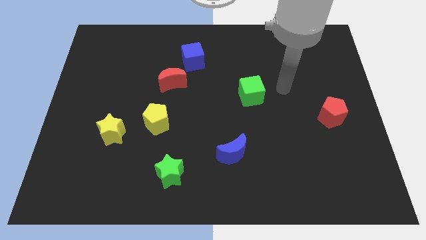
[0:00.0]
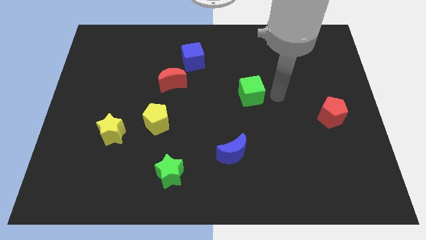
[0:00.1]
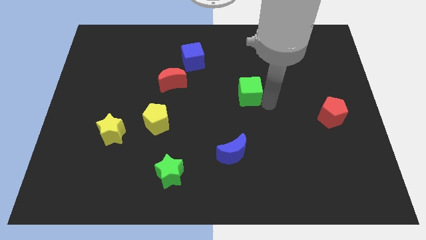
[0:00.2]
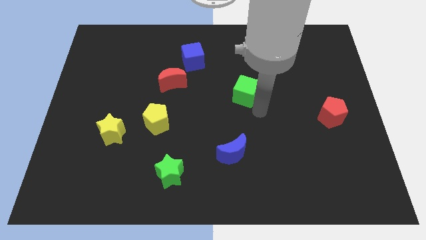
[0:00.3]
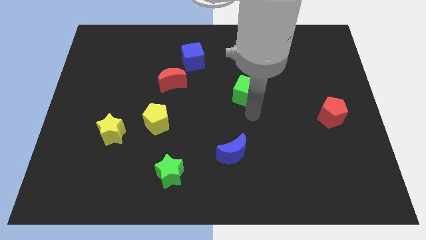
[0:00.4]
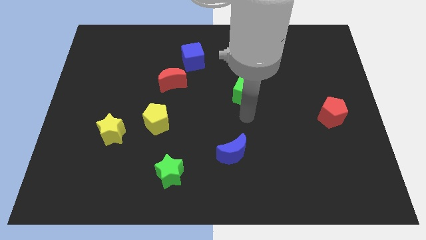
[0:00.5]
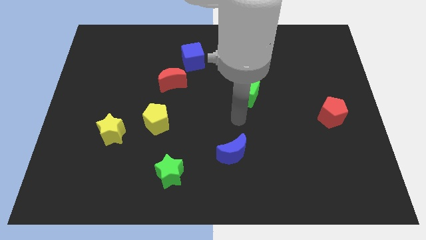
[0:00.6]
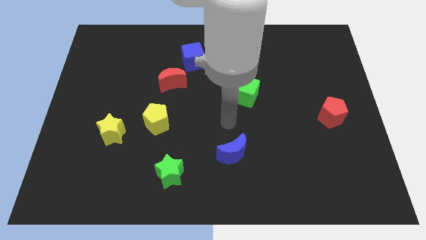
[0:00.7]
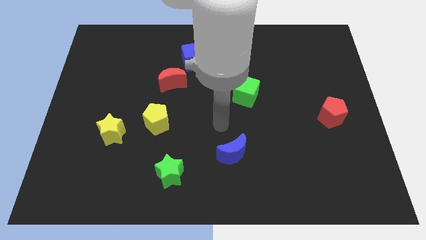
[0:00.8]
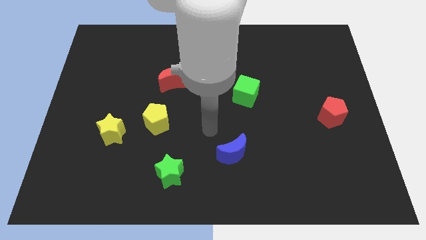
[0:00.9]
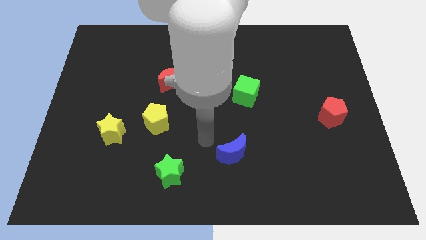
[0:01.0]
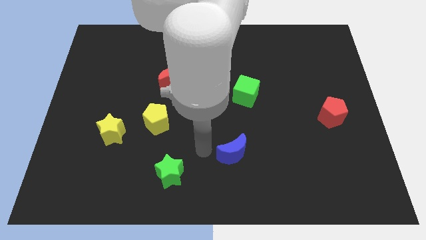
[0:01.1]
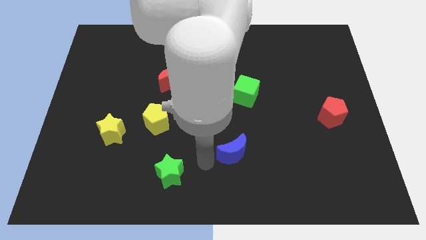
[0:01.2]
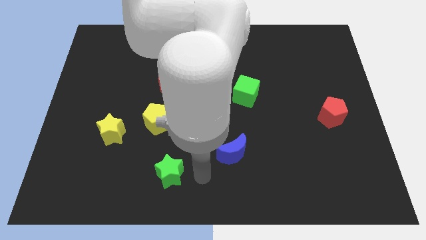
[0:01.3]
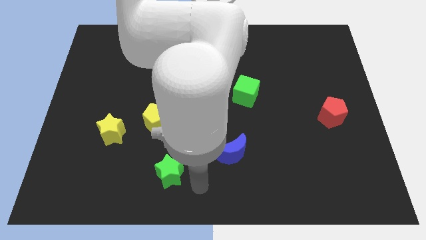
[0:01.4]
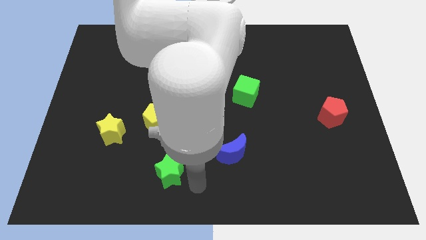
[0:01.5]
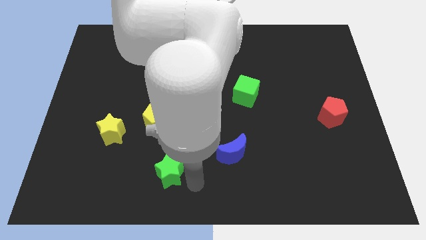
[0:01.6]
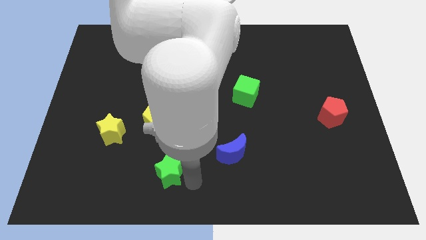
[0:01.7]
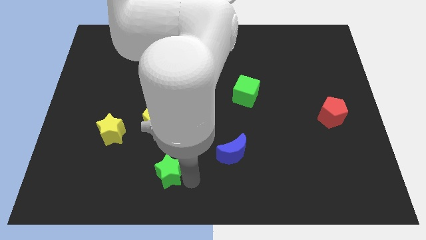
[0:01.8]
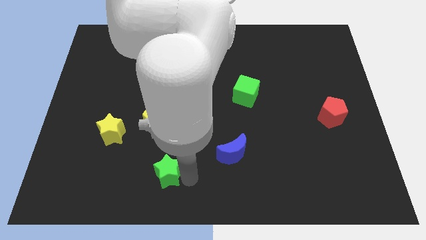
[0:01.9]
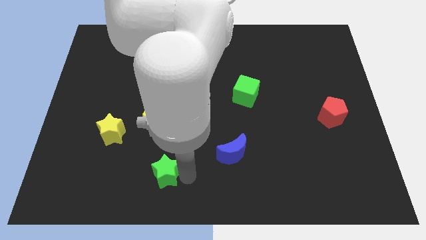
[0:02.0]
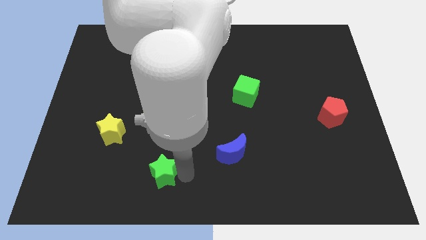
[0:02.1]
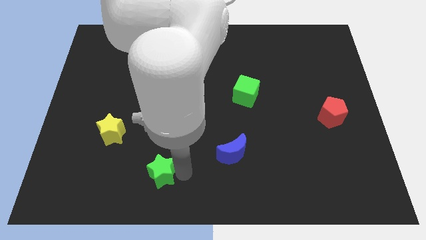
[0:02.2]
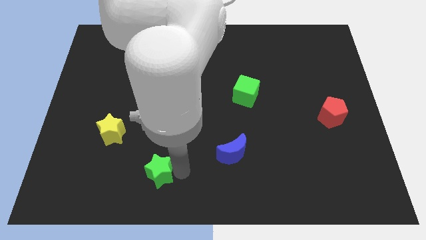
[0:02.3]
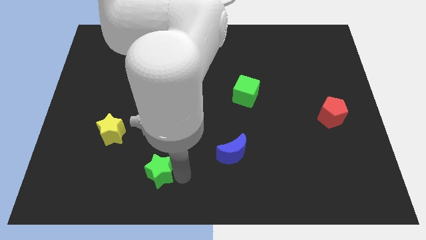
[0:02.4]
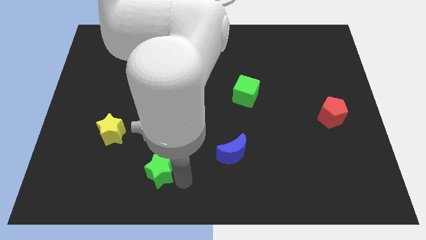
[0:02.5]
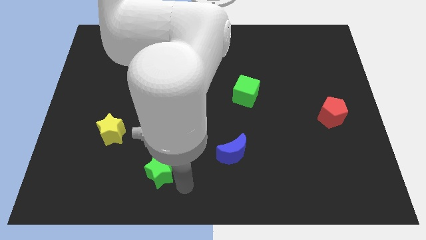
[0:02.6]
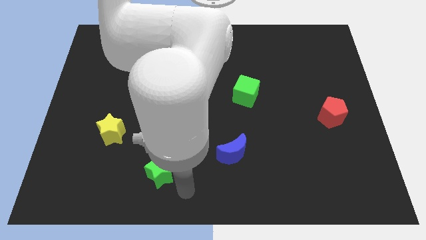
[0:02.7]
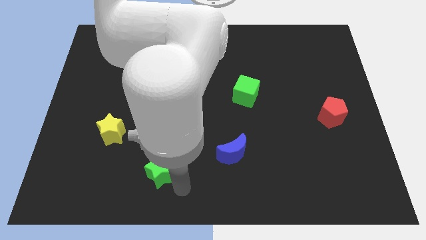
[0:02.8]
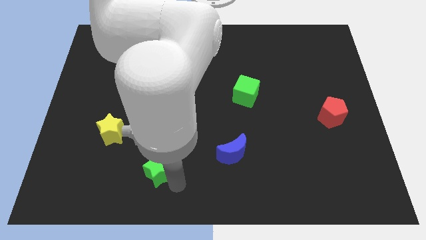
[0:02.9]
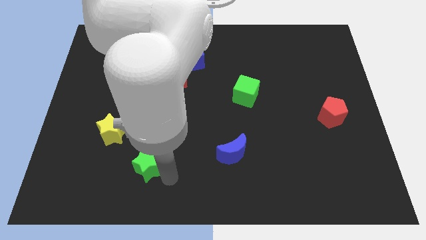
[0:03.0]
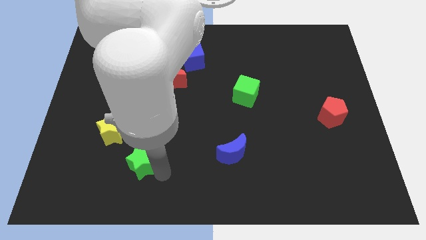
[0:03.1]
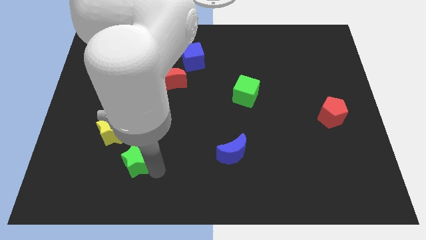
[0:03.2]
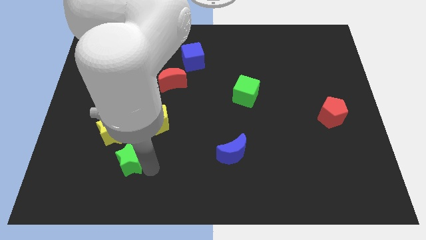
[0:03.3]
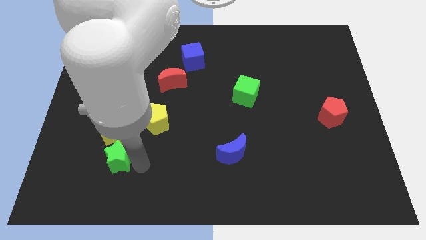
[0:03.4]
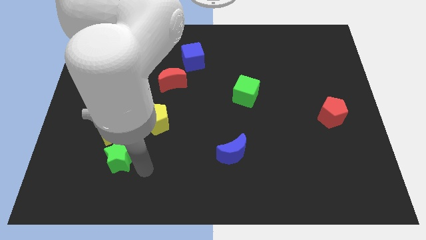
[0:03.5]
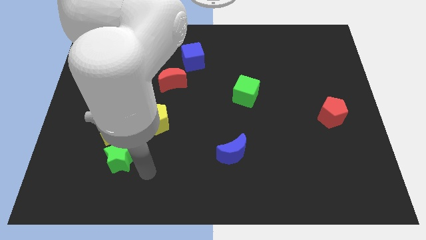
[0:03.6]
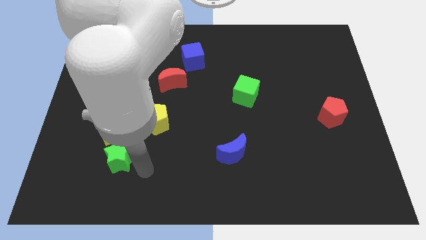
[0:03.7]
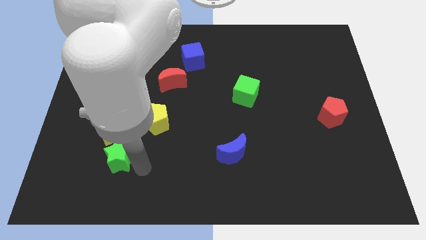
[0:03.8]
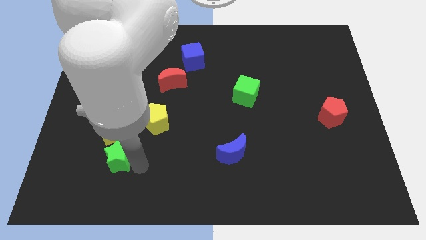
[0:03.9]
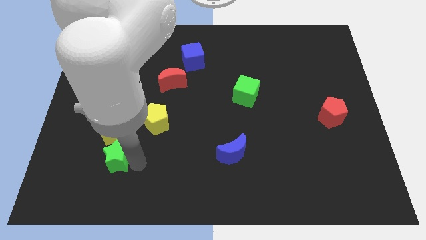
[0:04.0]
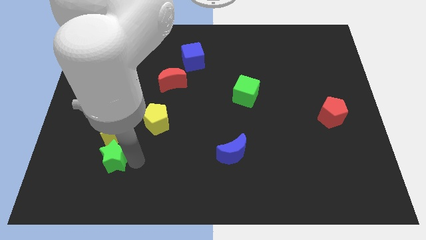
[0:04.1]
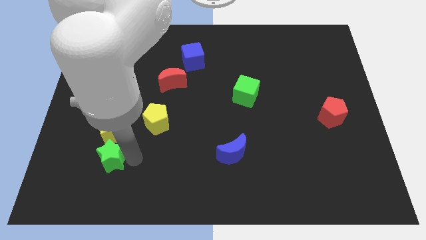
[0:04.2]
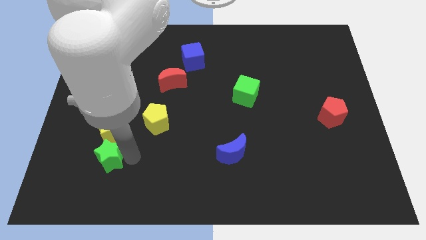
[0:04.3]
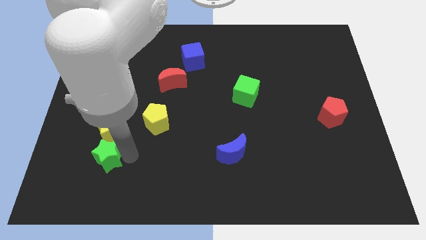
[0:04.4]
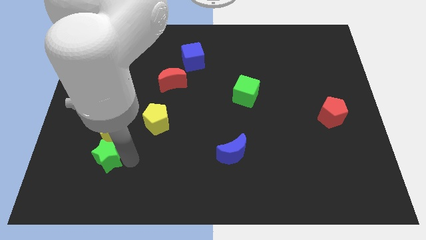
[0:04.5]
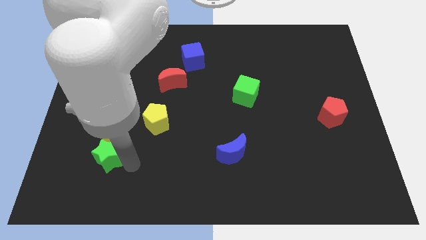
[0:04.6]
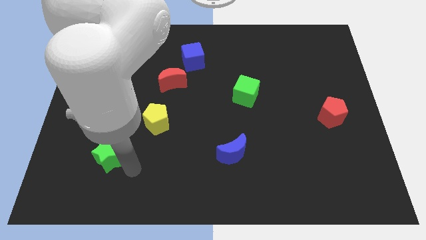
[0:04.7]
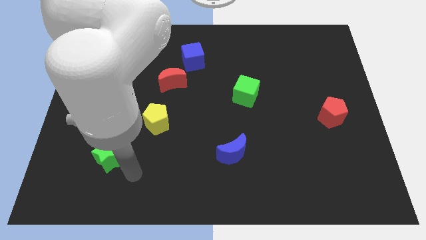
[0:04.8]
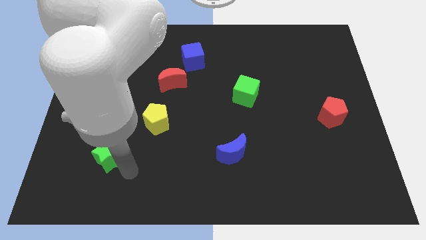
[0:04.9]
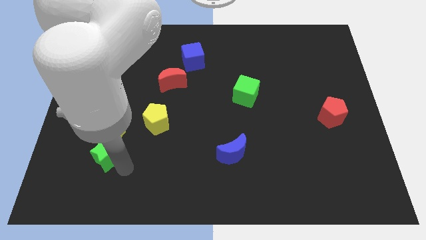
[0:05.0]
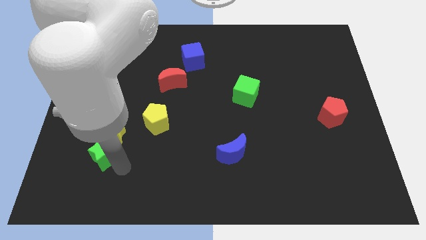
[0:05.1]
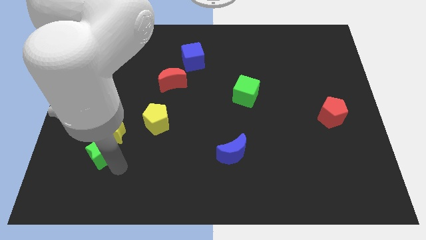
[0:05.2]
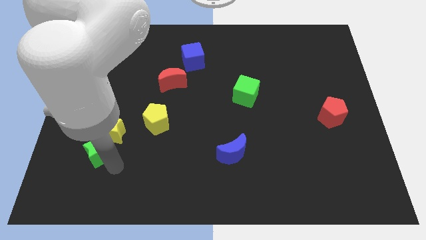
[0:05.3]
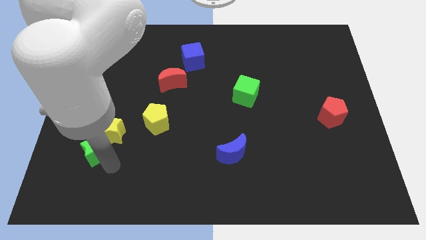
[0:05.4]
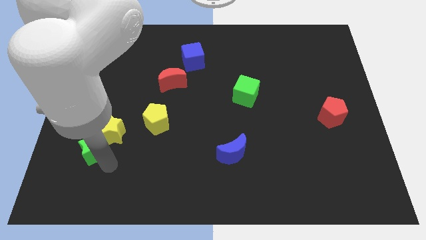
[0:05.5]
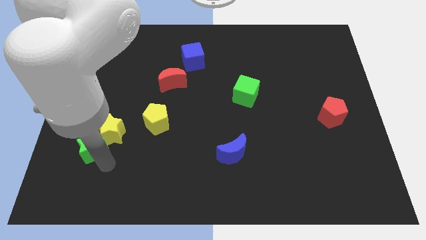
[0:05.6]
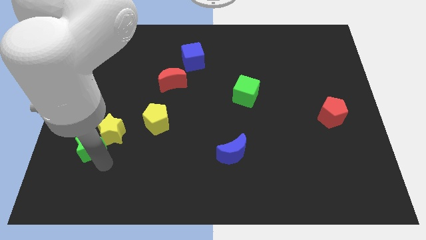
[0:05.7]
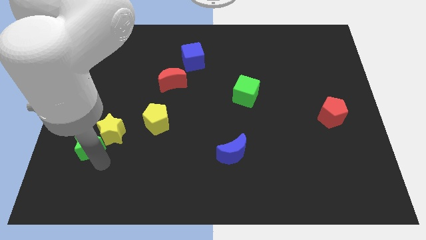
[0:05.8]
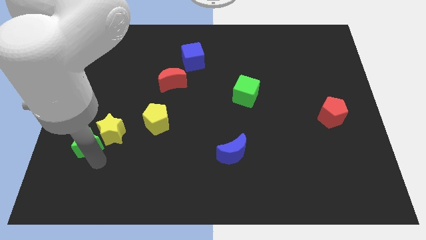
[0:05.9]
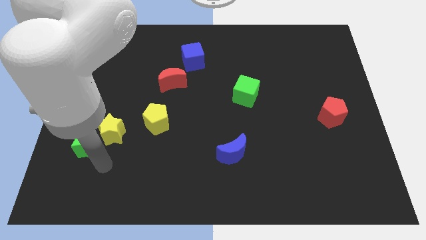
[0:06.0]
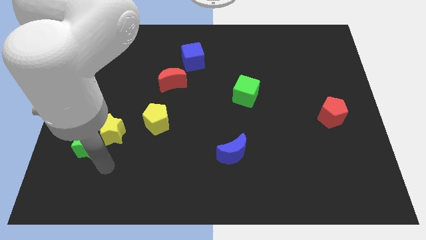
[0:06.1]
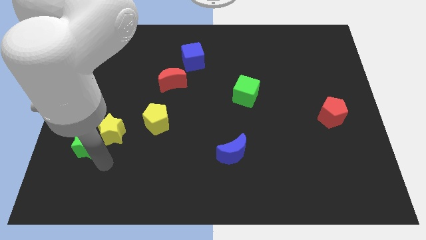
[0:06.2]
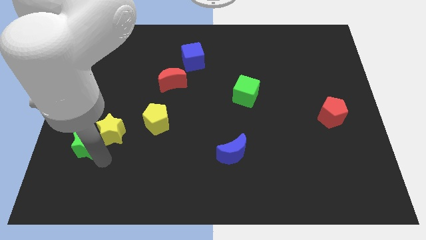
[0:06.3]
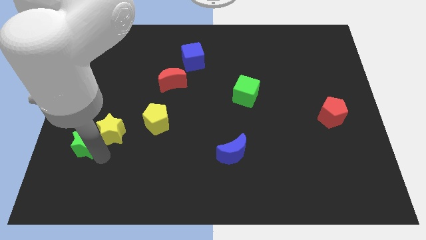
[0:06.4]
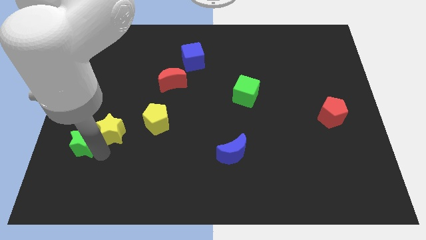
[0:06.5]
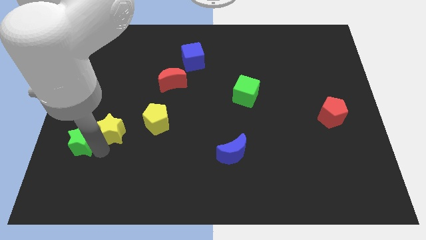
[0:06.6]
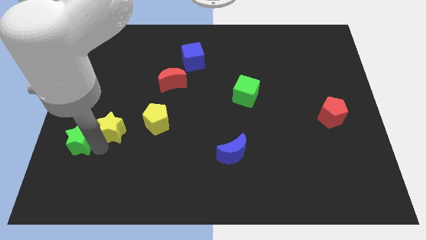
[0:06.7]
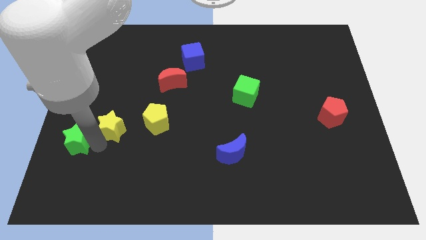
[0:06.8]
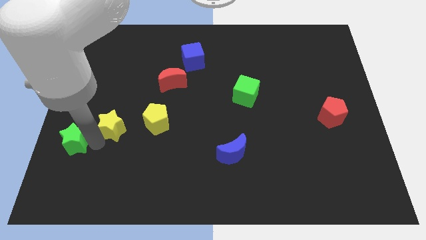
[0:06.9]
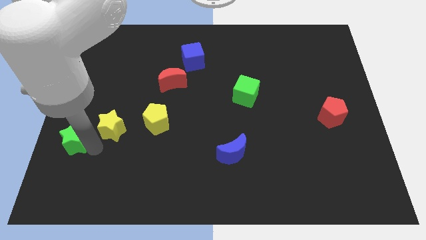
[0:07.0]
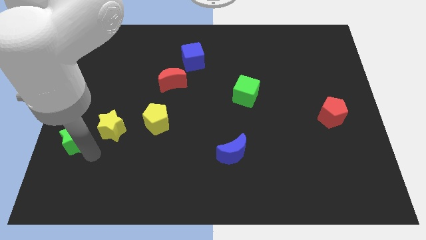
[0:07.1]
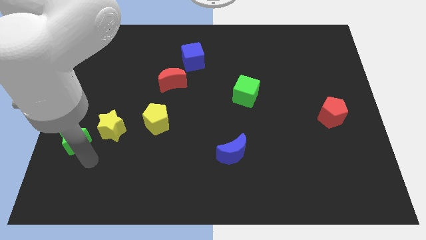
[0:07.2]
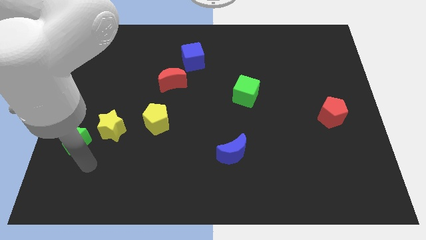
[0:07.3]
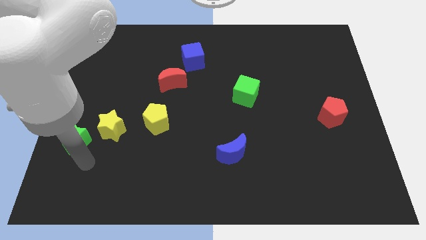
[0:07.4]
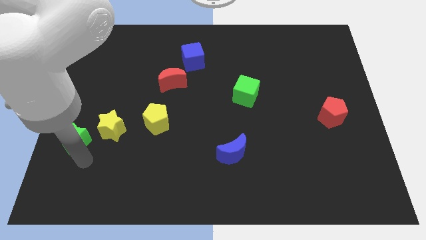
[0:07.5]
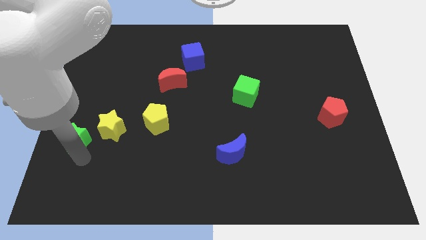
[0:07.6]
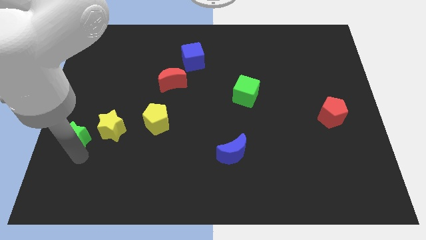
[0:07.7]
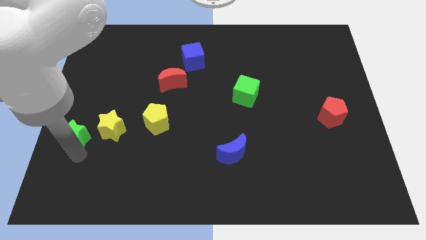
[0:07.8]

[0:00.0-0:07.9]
push the green star to the left side of the board
